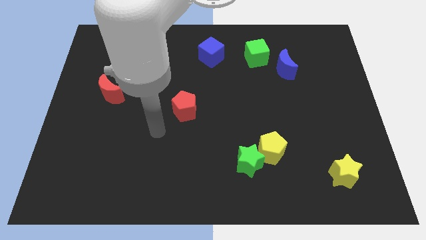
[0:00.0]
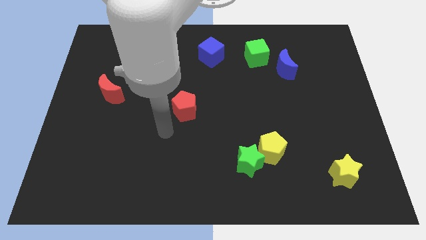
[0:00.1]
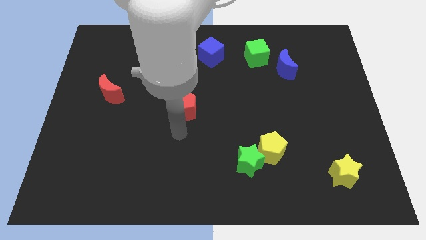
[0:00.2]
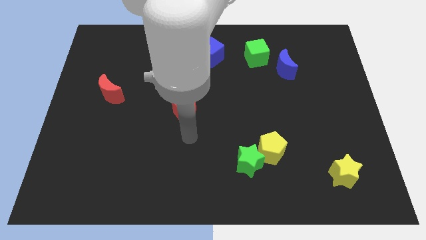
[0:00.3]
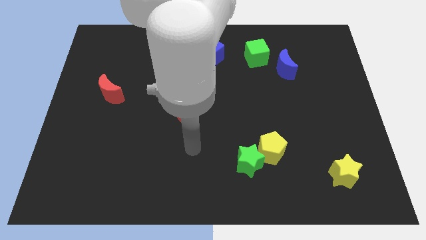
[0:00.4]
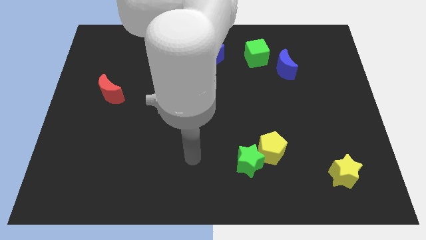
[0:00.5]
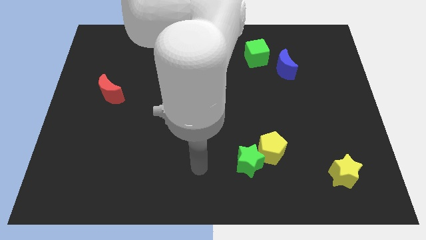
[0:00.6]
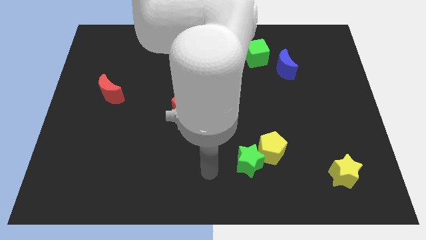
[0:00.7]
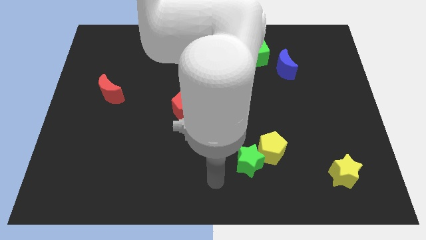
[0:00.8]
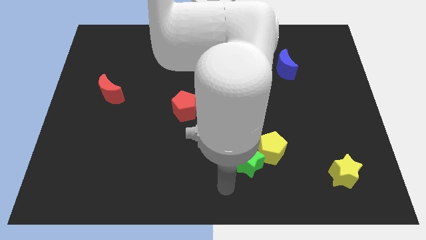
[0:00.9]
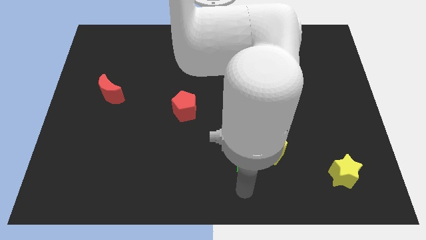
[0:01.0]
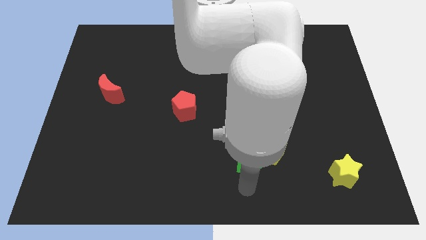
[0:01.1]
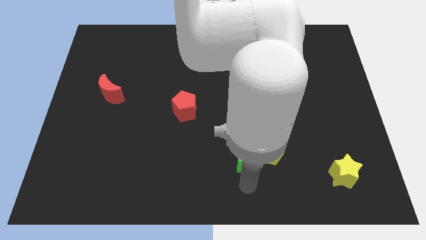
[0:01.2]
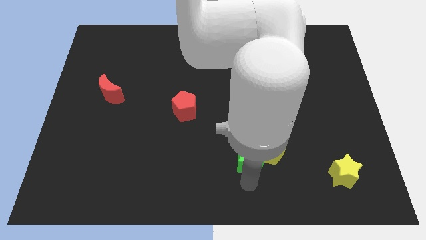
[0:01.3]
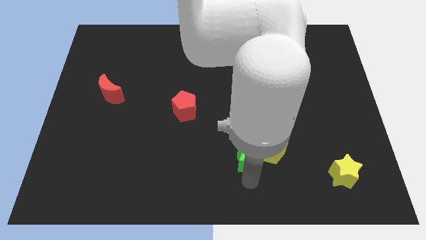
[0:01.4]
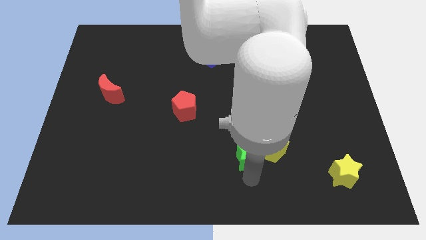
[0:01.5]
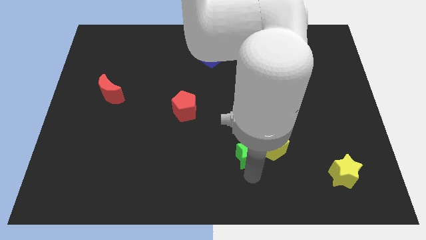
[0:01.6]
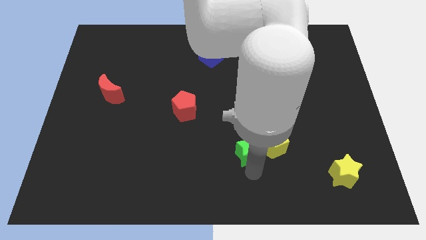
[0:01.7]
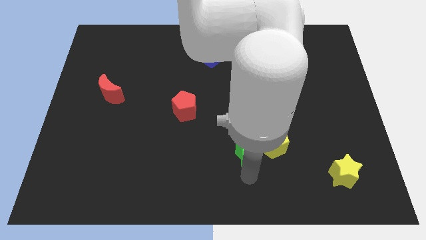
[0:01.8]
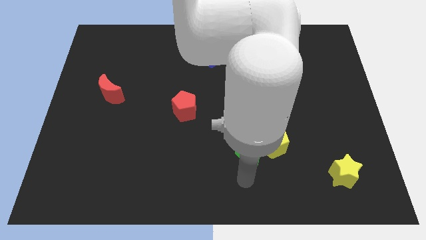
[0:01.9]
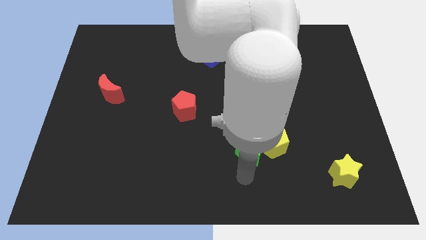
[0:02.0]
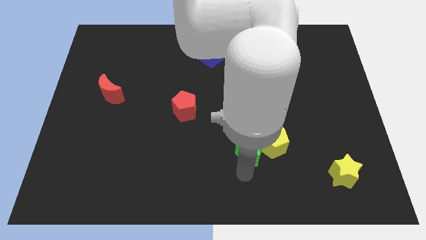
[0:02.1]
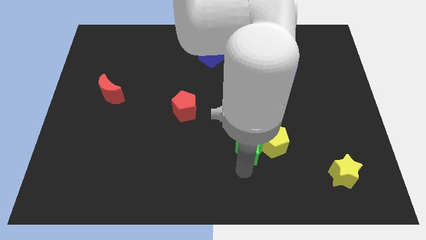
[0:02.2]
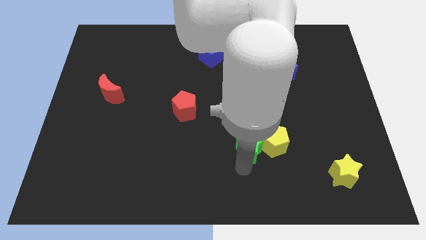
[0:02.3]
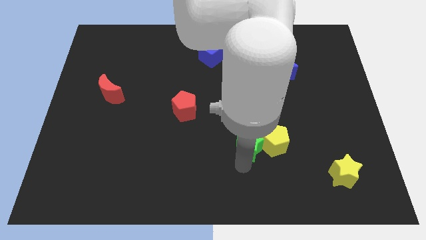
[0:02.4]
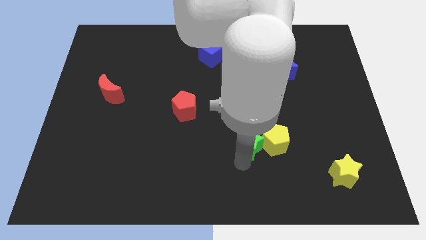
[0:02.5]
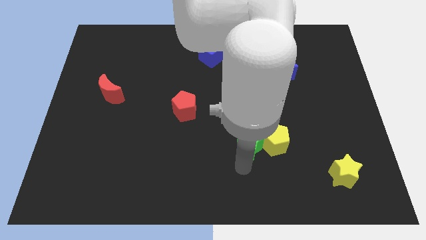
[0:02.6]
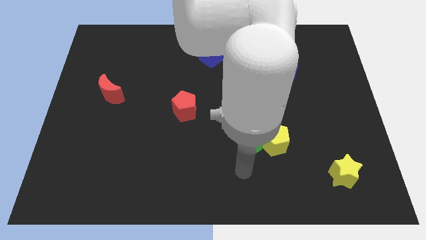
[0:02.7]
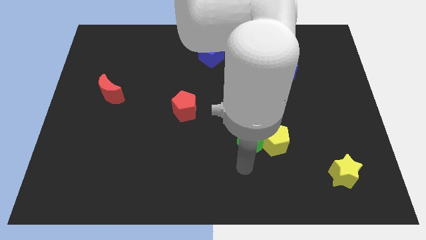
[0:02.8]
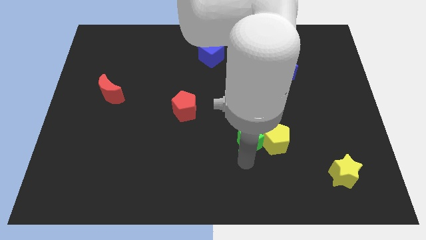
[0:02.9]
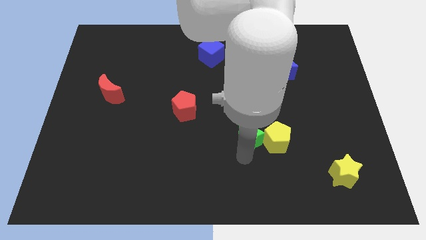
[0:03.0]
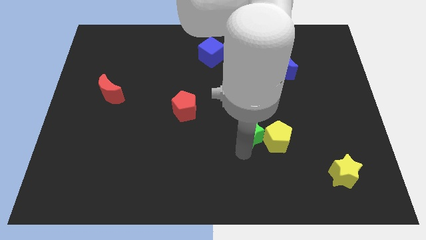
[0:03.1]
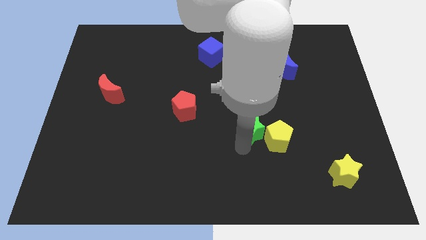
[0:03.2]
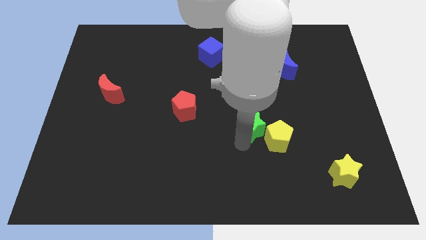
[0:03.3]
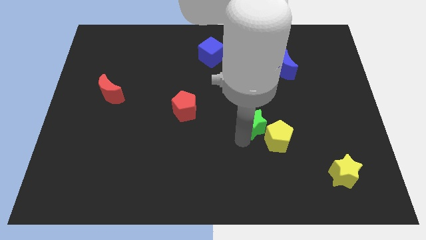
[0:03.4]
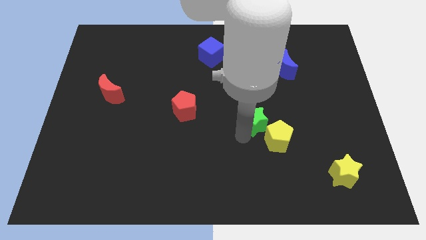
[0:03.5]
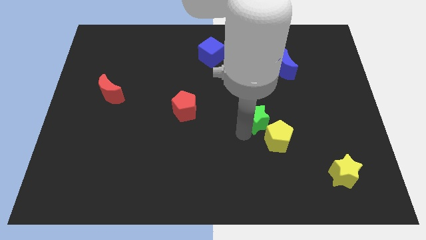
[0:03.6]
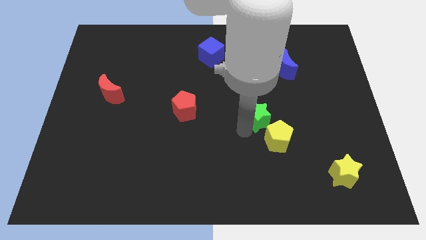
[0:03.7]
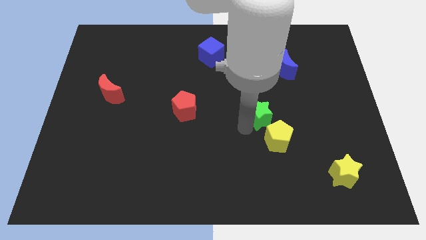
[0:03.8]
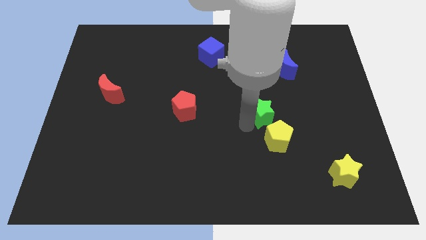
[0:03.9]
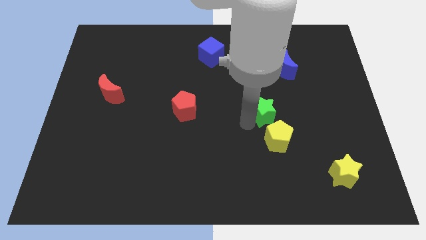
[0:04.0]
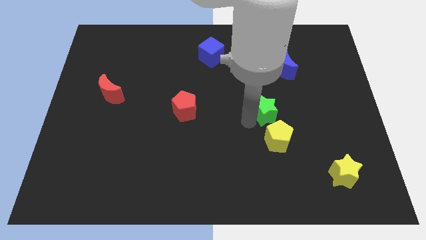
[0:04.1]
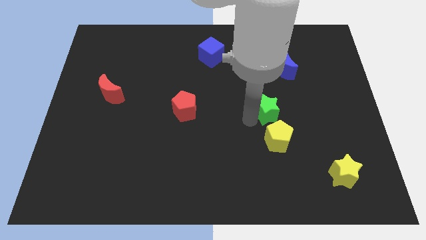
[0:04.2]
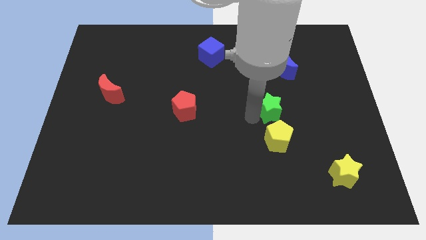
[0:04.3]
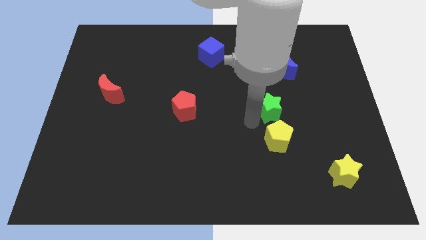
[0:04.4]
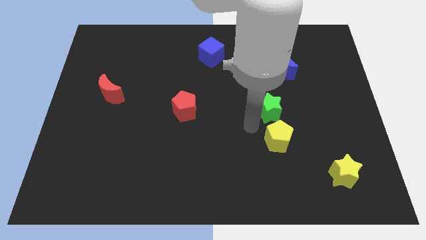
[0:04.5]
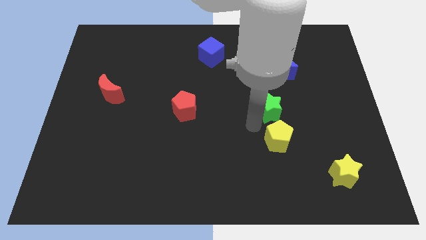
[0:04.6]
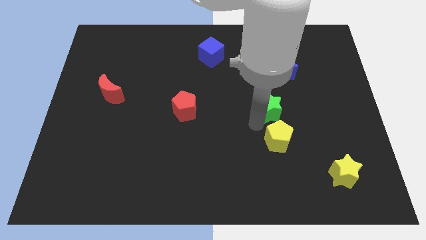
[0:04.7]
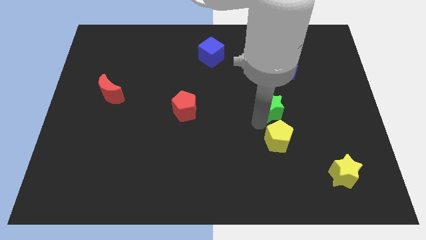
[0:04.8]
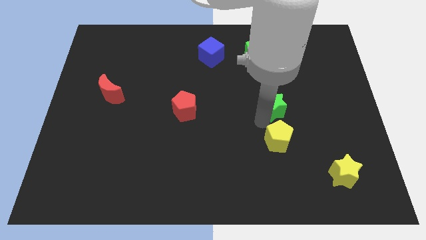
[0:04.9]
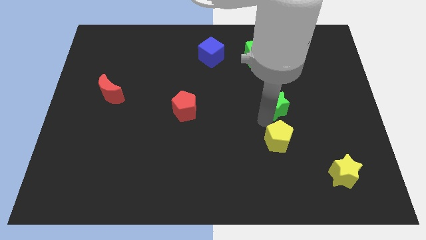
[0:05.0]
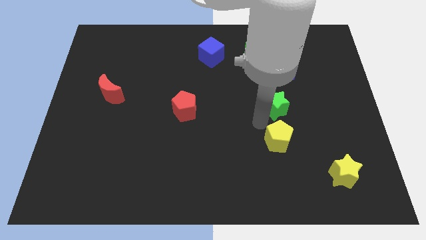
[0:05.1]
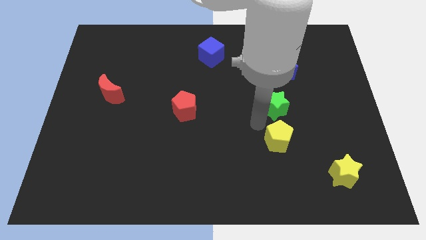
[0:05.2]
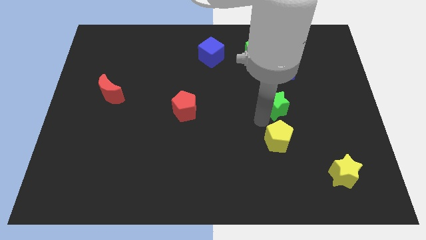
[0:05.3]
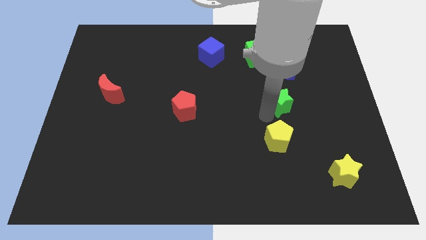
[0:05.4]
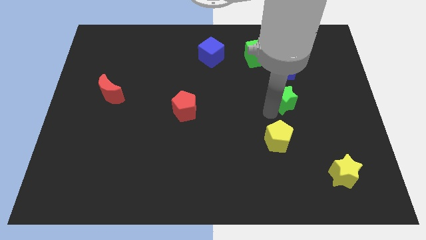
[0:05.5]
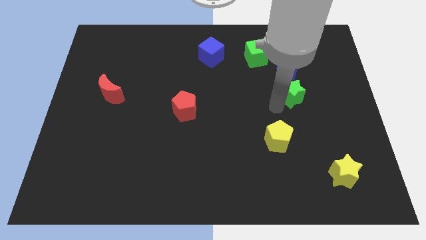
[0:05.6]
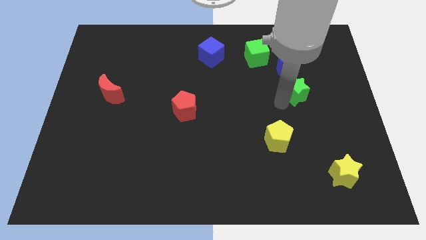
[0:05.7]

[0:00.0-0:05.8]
push the green star diagonally down and to the right of the blue moon

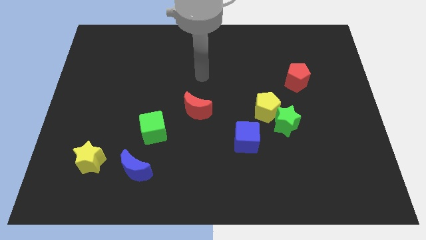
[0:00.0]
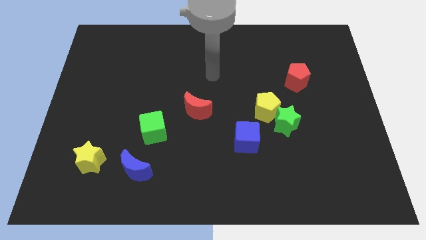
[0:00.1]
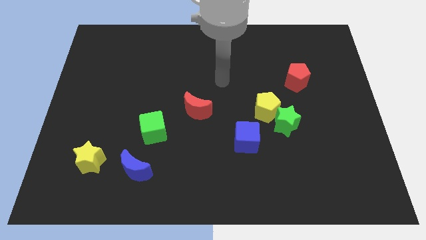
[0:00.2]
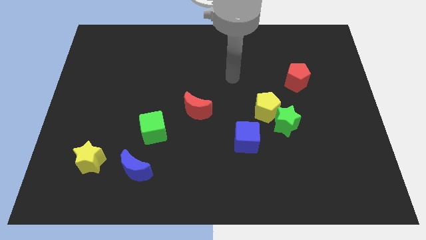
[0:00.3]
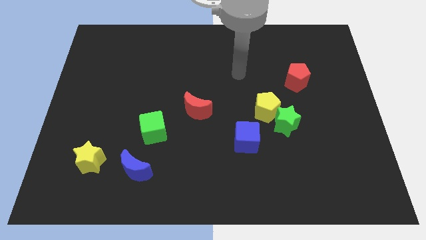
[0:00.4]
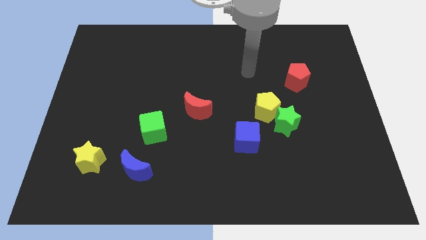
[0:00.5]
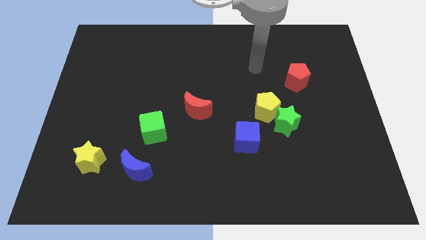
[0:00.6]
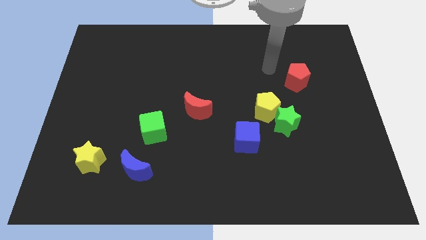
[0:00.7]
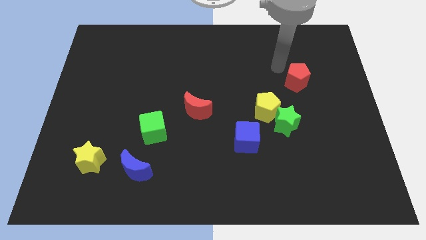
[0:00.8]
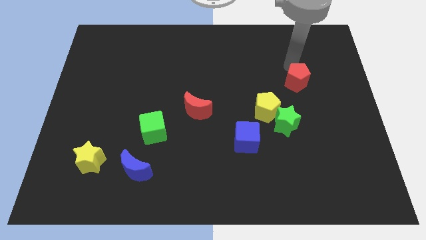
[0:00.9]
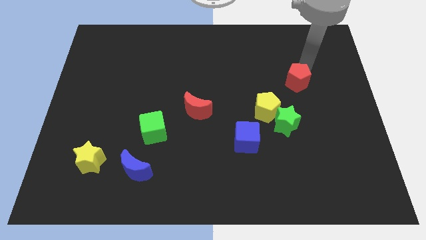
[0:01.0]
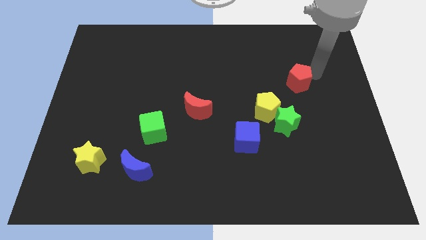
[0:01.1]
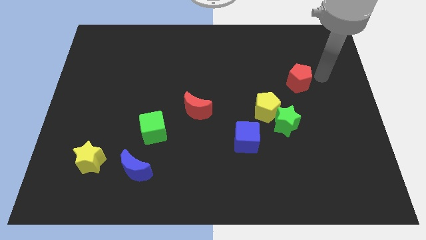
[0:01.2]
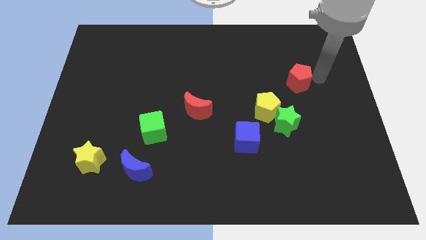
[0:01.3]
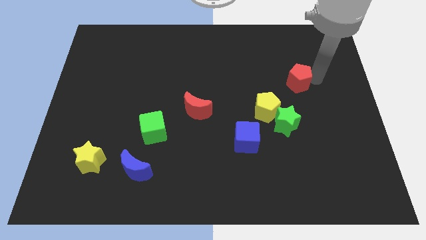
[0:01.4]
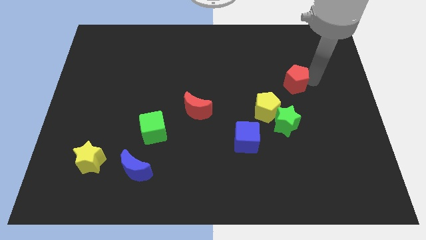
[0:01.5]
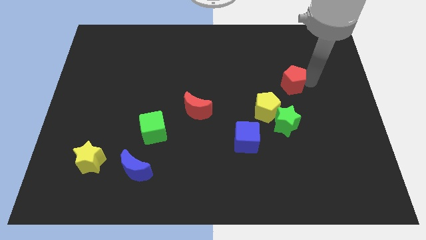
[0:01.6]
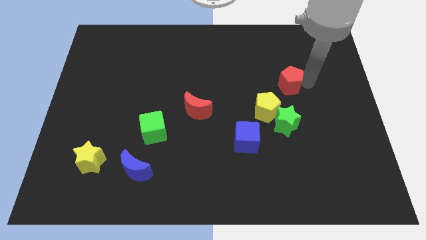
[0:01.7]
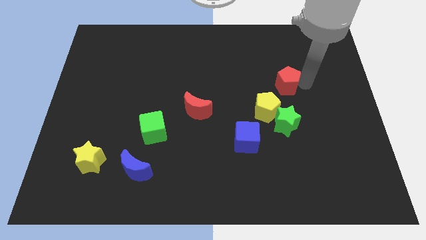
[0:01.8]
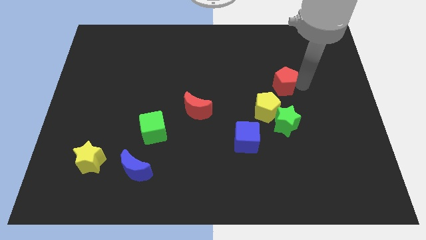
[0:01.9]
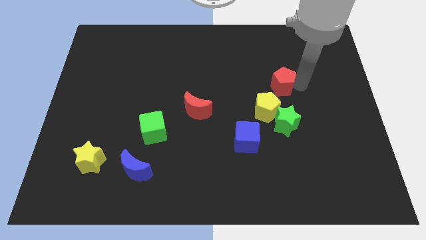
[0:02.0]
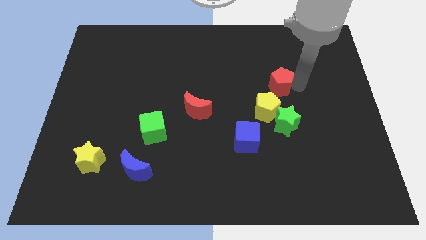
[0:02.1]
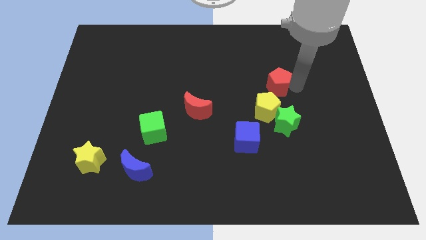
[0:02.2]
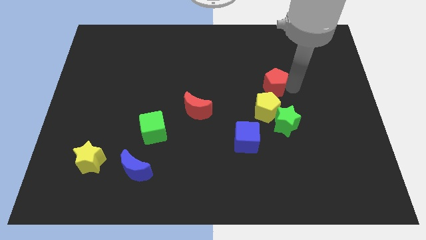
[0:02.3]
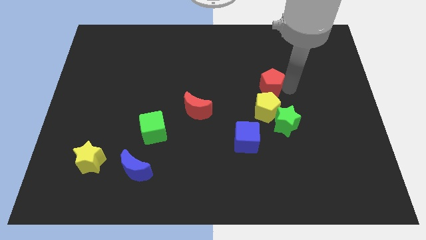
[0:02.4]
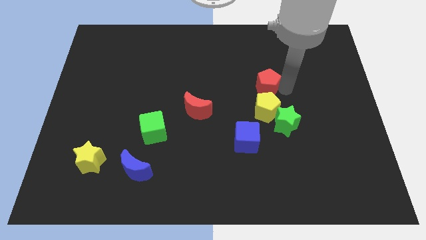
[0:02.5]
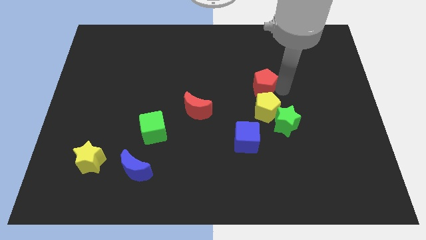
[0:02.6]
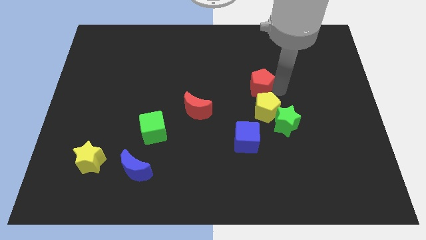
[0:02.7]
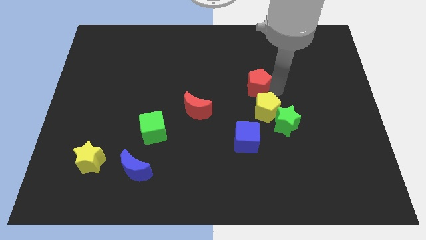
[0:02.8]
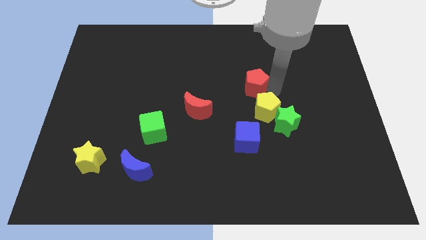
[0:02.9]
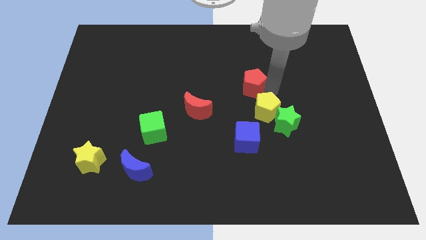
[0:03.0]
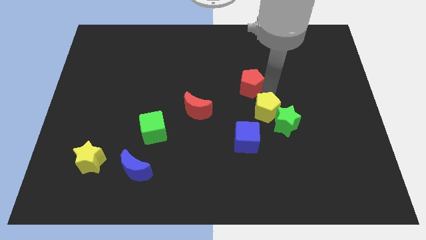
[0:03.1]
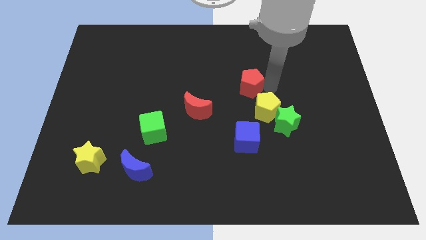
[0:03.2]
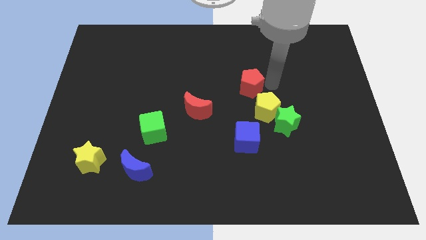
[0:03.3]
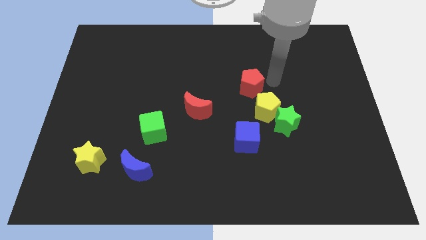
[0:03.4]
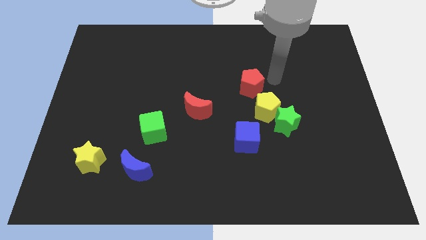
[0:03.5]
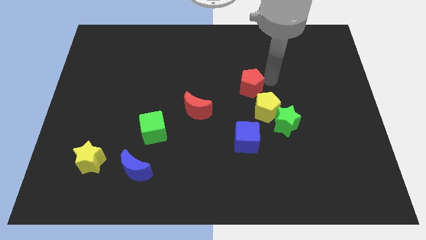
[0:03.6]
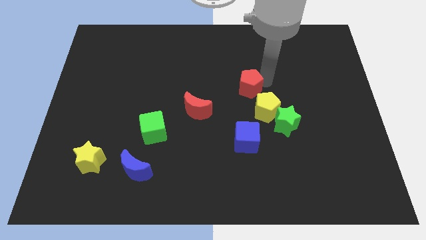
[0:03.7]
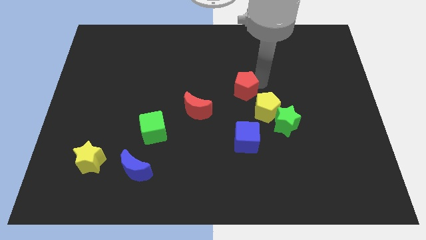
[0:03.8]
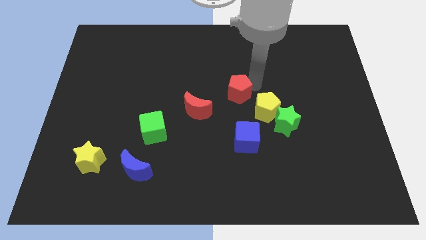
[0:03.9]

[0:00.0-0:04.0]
put the red pentagon diagonally up and to the right of the red moon
